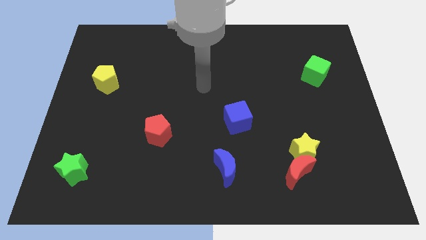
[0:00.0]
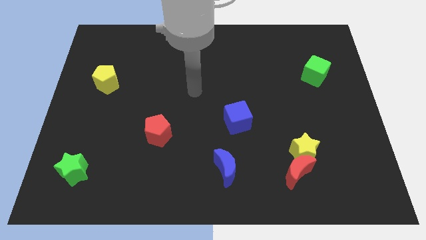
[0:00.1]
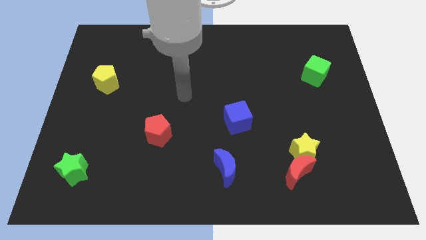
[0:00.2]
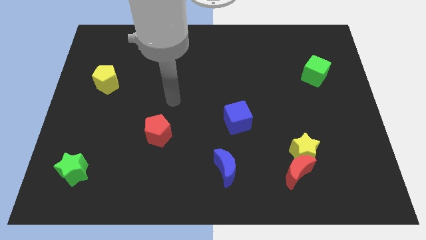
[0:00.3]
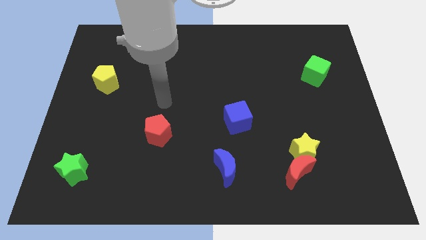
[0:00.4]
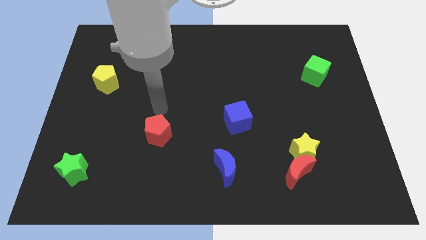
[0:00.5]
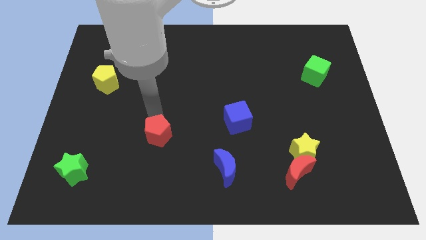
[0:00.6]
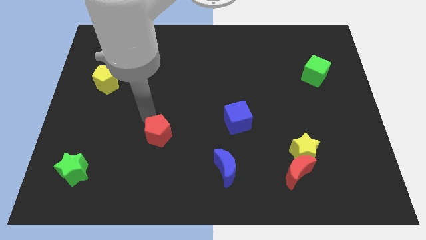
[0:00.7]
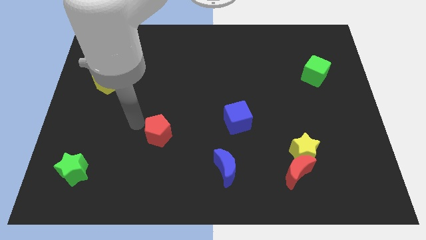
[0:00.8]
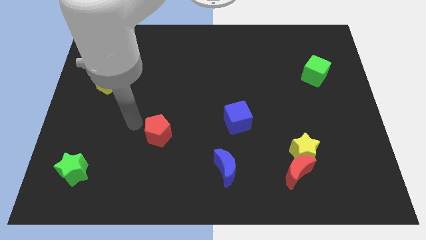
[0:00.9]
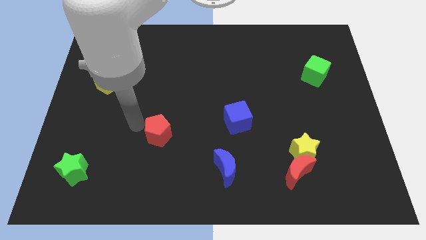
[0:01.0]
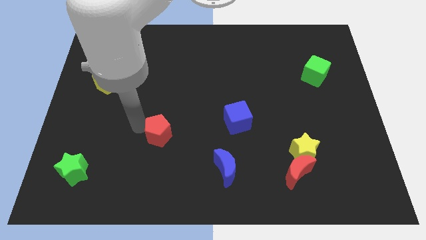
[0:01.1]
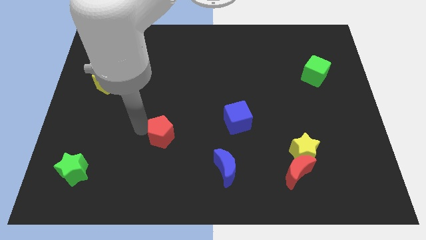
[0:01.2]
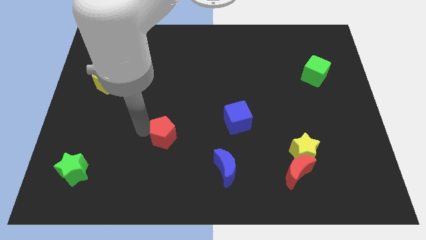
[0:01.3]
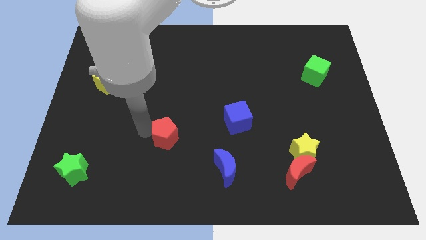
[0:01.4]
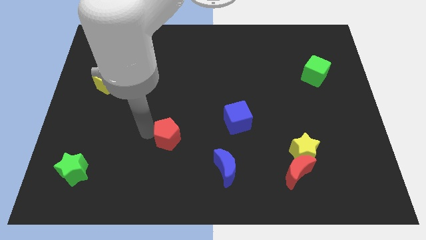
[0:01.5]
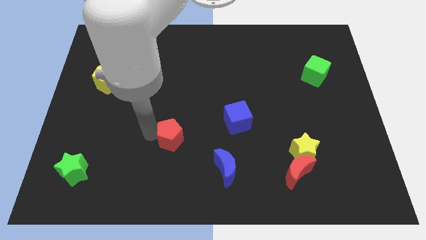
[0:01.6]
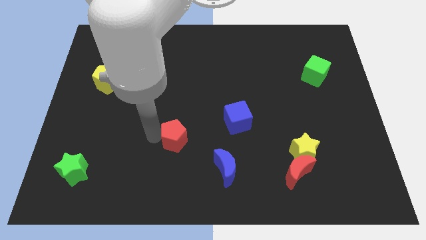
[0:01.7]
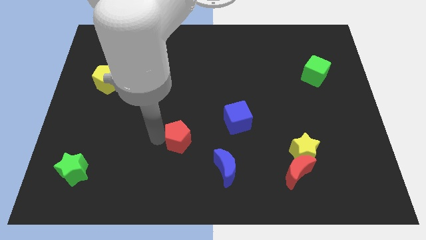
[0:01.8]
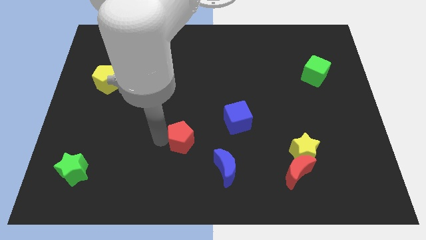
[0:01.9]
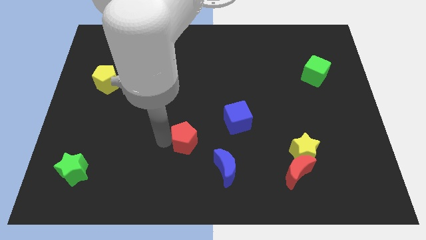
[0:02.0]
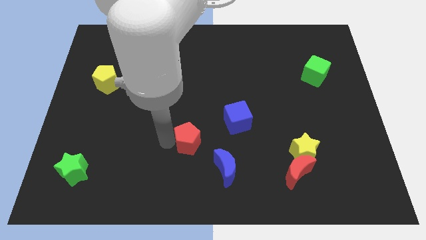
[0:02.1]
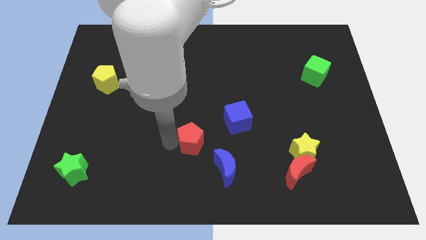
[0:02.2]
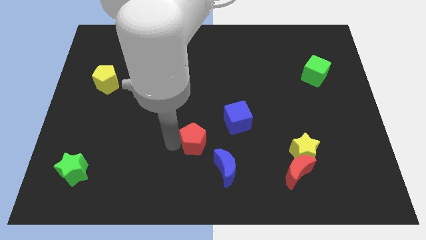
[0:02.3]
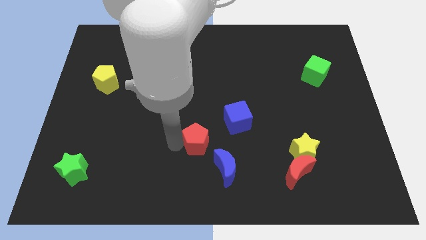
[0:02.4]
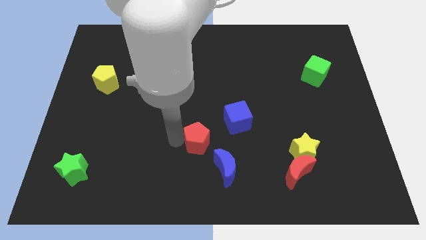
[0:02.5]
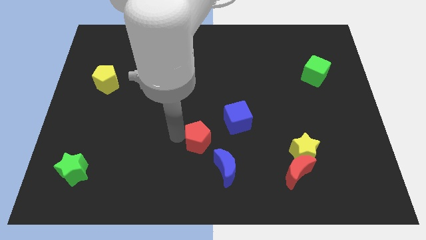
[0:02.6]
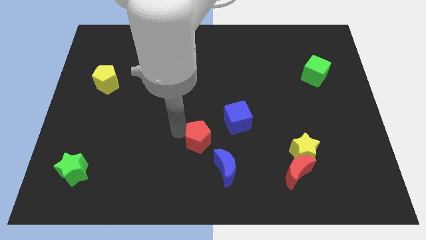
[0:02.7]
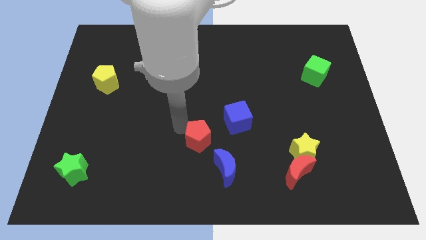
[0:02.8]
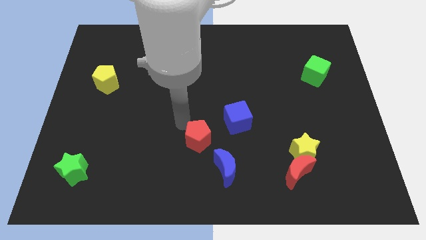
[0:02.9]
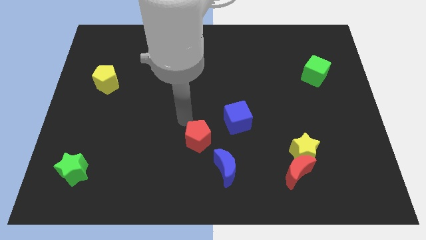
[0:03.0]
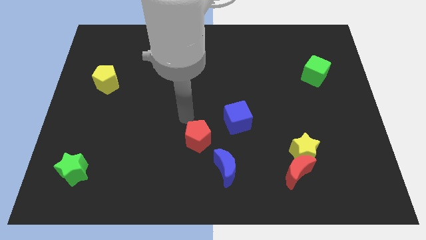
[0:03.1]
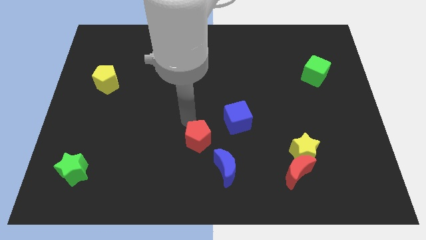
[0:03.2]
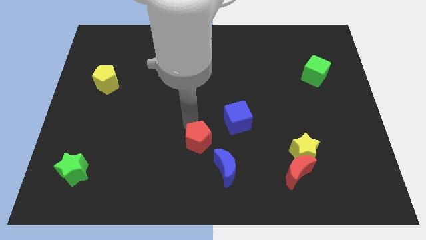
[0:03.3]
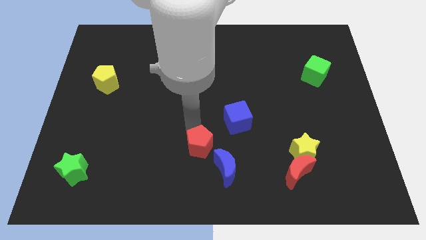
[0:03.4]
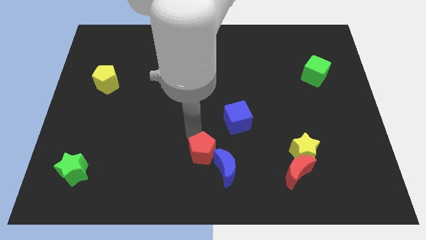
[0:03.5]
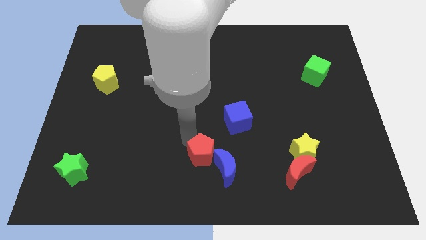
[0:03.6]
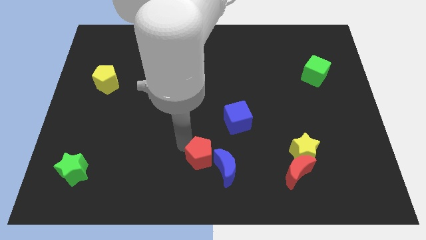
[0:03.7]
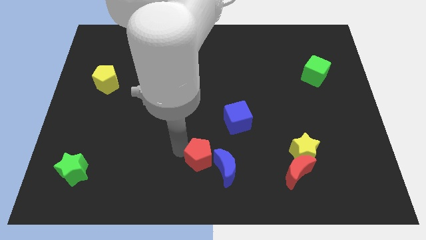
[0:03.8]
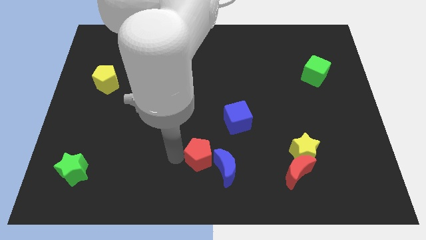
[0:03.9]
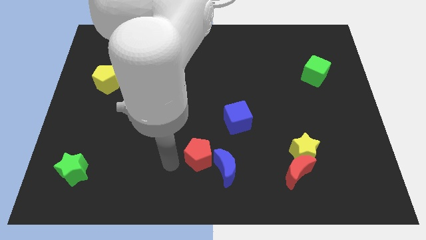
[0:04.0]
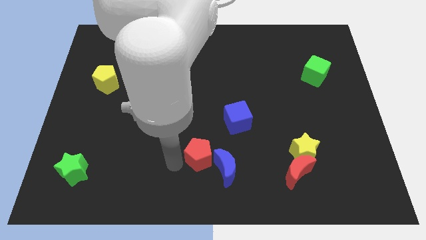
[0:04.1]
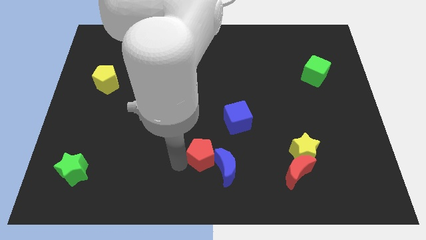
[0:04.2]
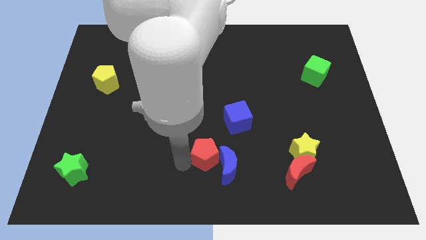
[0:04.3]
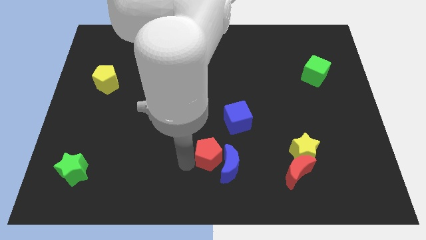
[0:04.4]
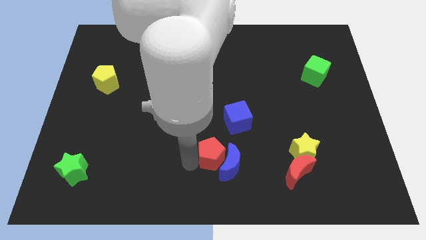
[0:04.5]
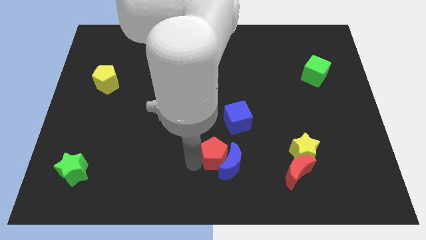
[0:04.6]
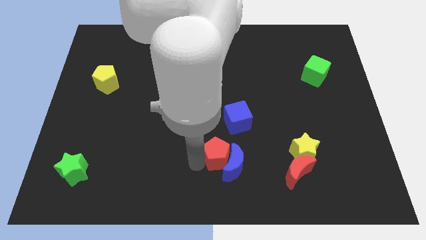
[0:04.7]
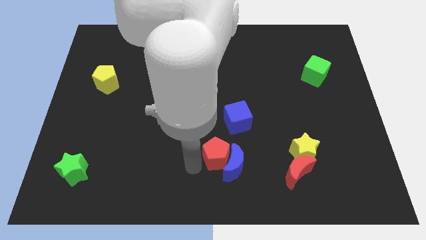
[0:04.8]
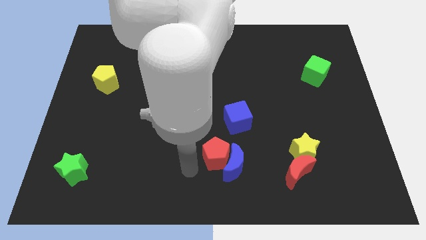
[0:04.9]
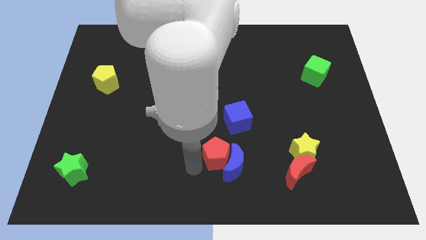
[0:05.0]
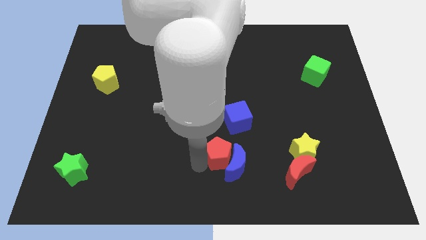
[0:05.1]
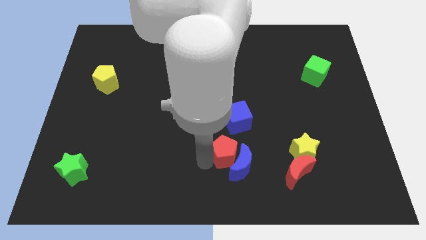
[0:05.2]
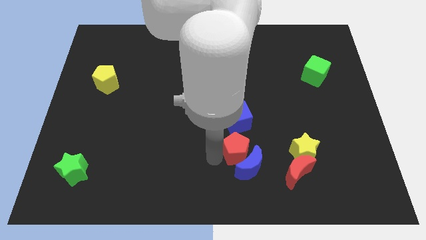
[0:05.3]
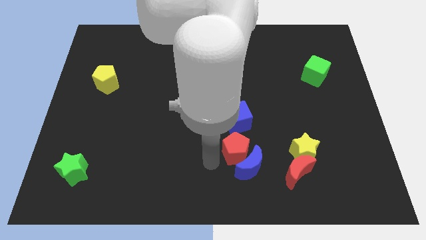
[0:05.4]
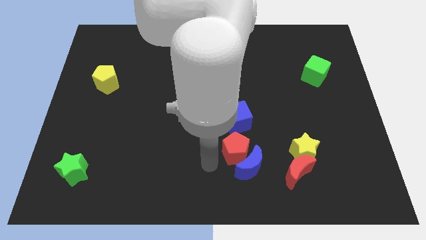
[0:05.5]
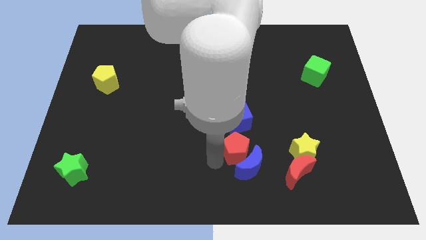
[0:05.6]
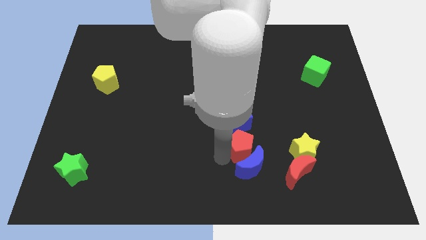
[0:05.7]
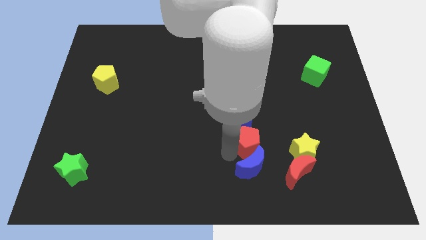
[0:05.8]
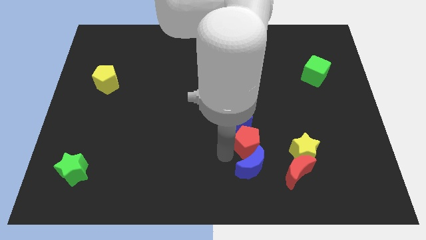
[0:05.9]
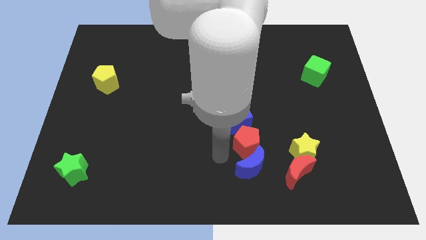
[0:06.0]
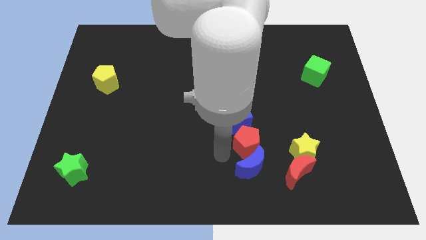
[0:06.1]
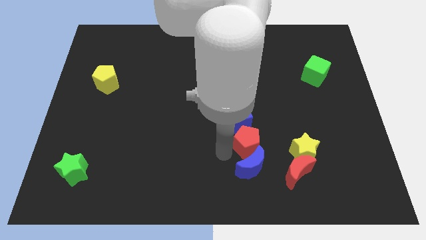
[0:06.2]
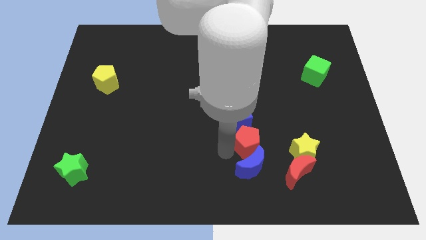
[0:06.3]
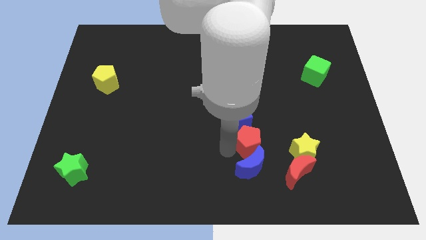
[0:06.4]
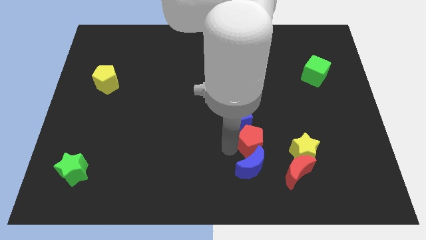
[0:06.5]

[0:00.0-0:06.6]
push the red pentagon right

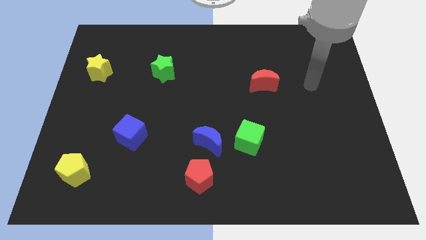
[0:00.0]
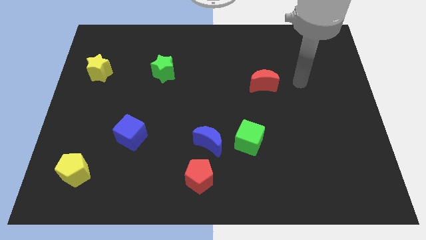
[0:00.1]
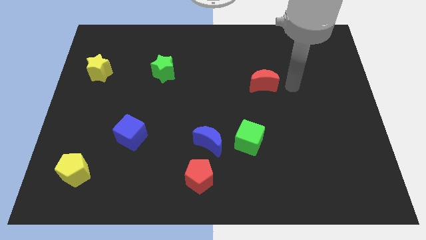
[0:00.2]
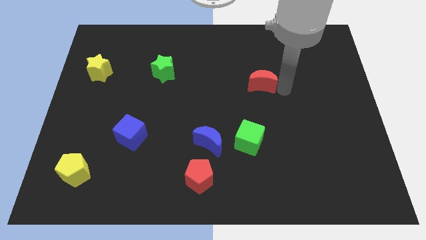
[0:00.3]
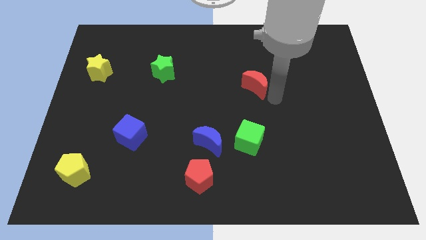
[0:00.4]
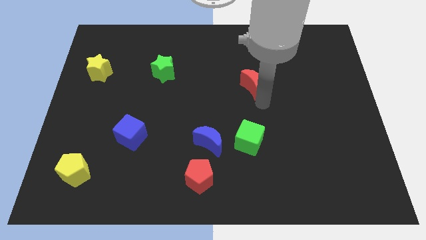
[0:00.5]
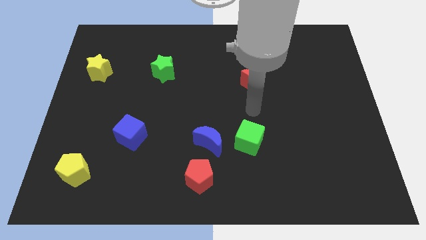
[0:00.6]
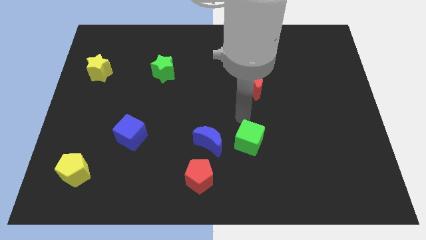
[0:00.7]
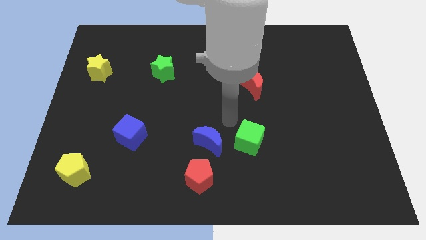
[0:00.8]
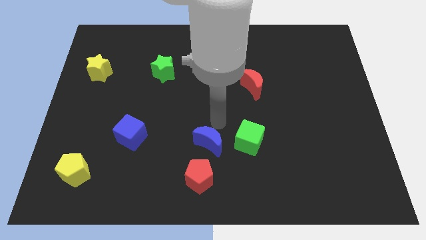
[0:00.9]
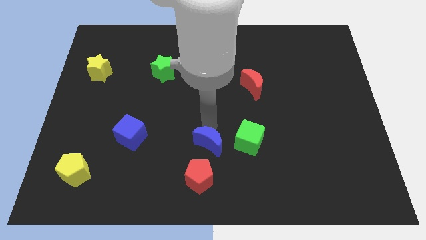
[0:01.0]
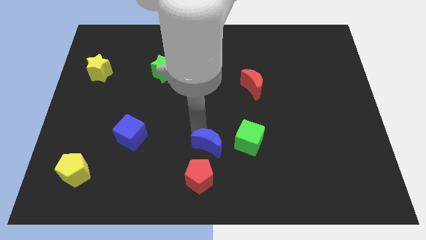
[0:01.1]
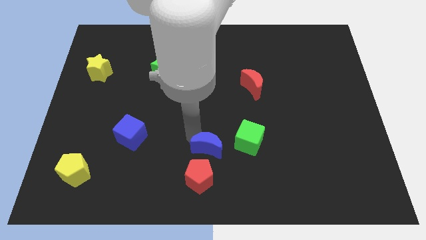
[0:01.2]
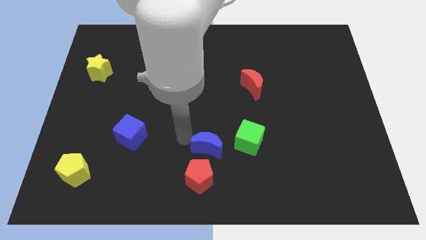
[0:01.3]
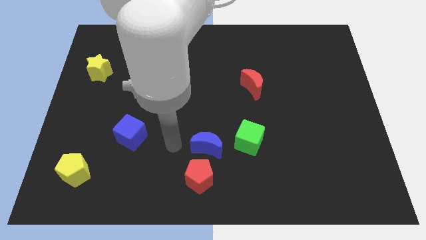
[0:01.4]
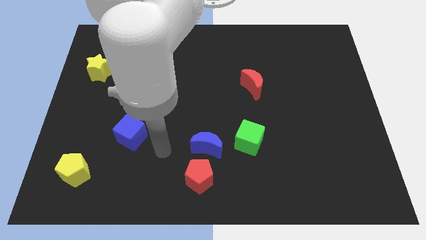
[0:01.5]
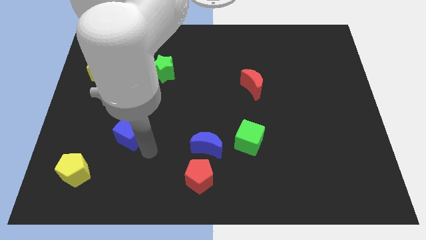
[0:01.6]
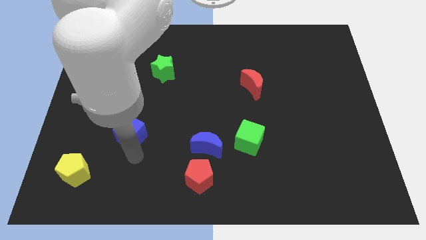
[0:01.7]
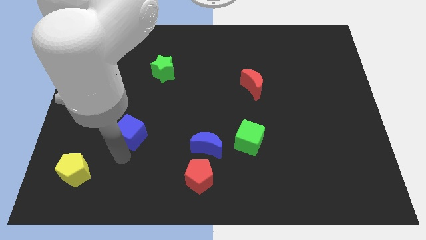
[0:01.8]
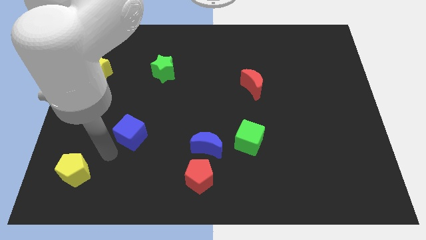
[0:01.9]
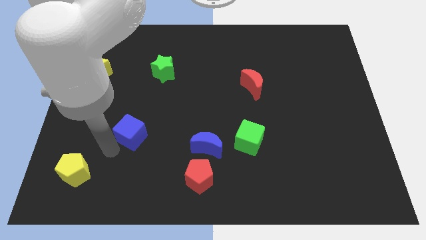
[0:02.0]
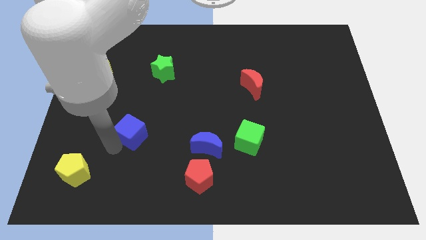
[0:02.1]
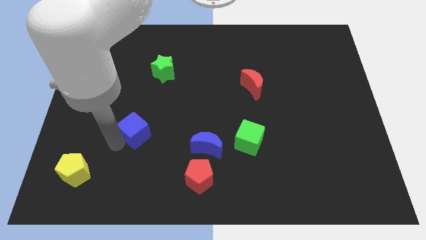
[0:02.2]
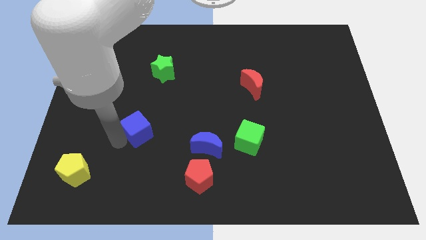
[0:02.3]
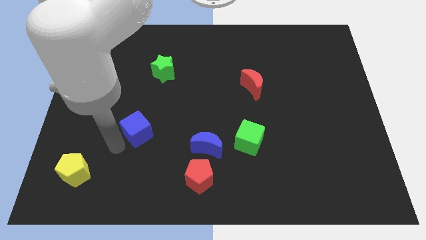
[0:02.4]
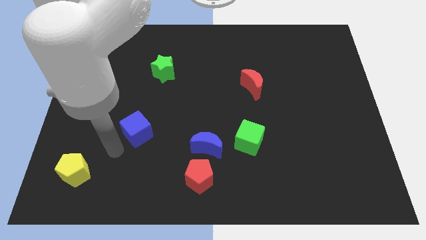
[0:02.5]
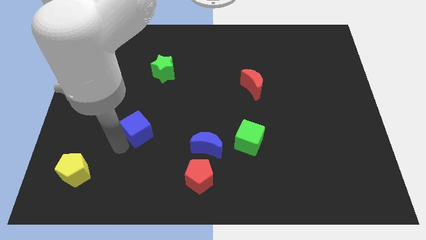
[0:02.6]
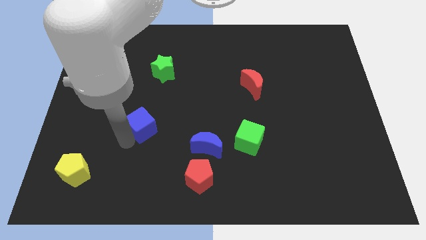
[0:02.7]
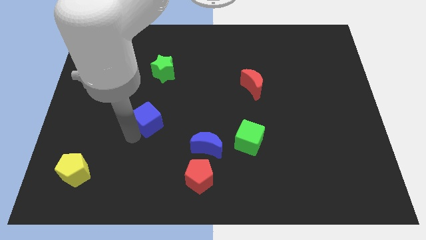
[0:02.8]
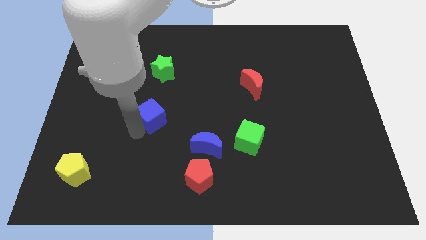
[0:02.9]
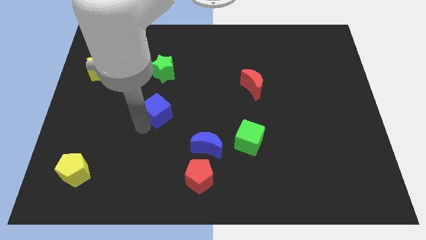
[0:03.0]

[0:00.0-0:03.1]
move the blue cube upwards and to the right slightly
